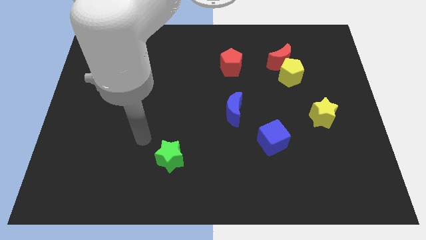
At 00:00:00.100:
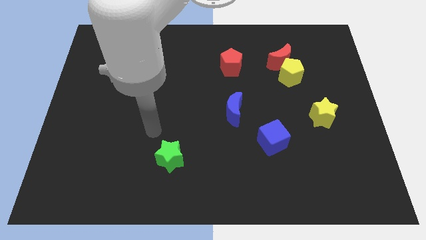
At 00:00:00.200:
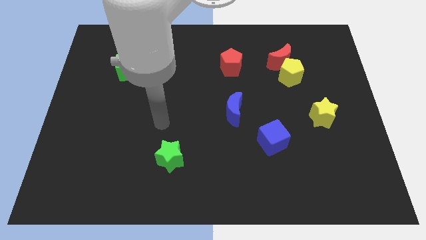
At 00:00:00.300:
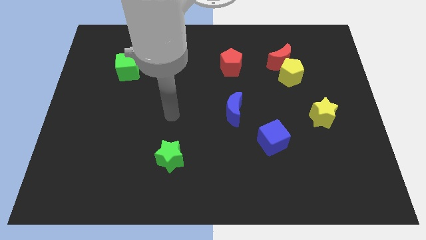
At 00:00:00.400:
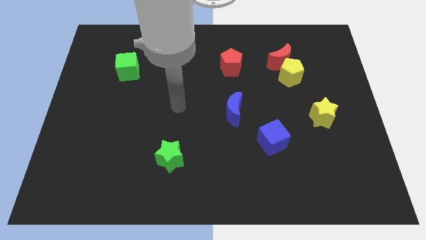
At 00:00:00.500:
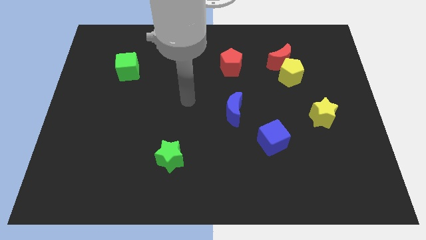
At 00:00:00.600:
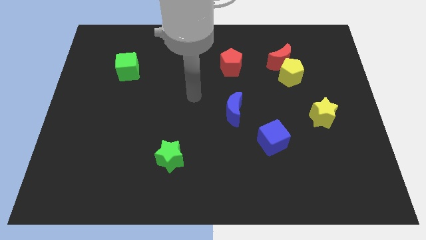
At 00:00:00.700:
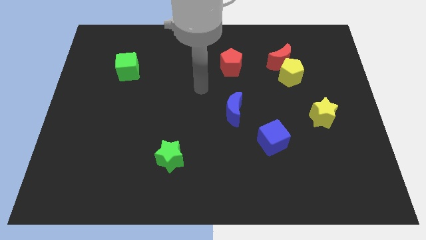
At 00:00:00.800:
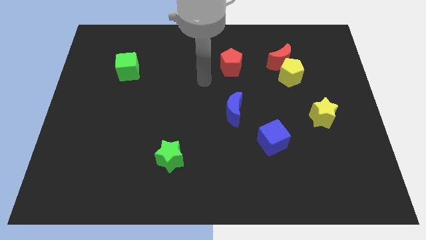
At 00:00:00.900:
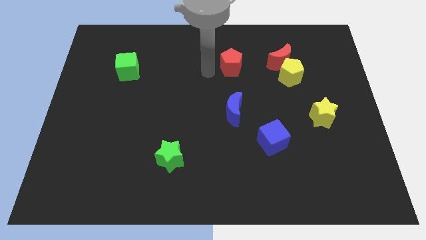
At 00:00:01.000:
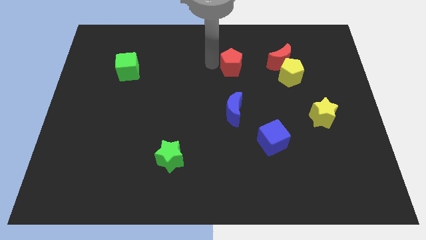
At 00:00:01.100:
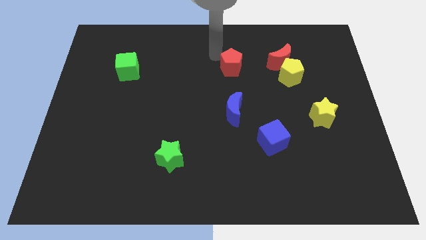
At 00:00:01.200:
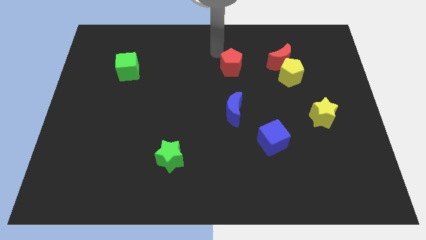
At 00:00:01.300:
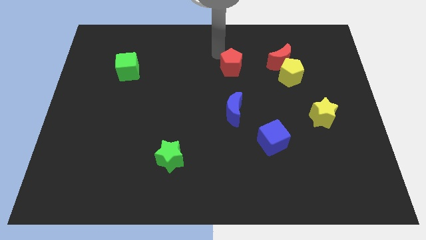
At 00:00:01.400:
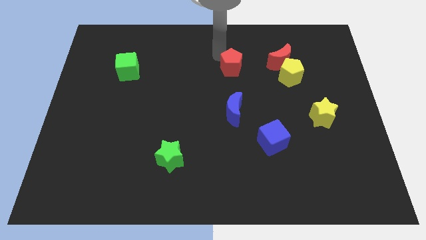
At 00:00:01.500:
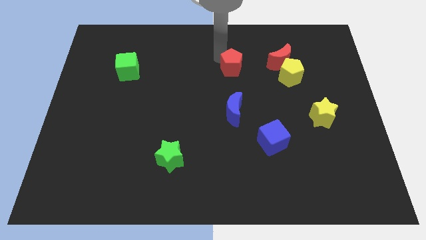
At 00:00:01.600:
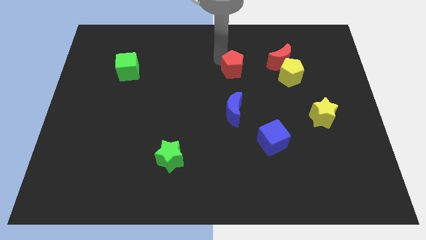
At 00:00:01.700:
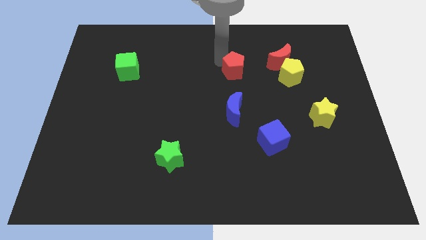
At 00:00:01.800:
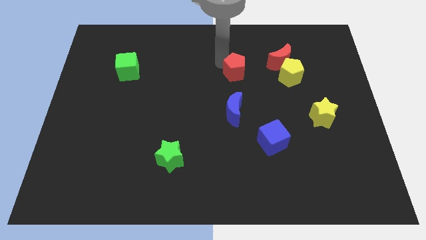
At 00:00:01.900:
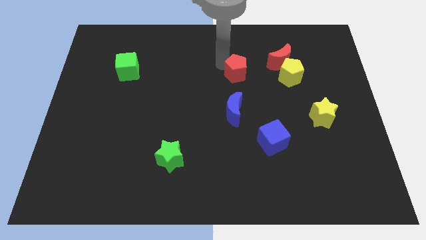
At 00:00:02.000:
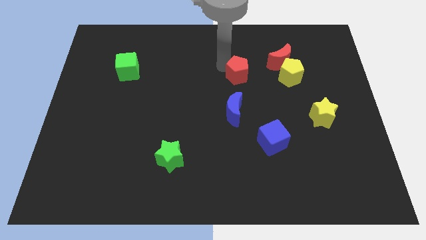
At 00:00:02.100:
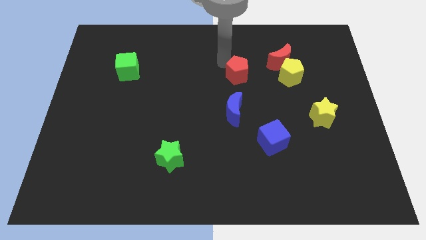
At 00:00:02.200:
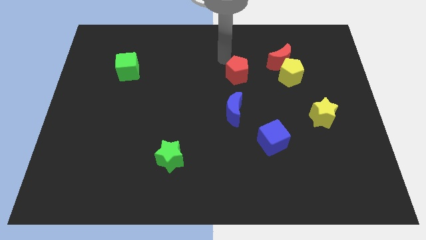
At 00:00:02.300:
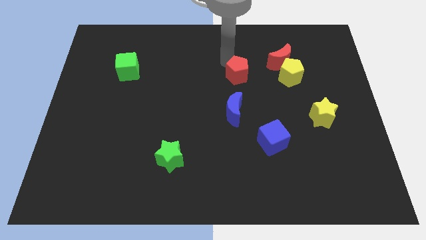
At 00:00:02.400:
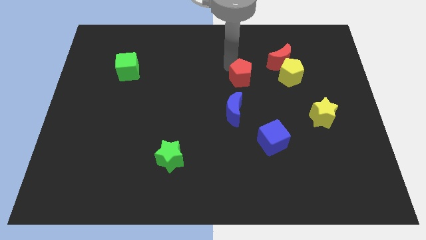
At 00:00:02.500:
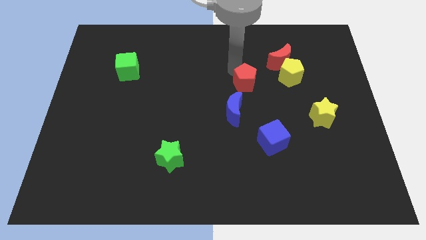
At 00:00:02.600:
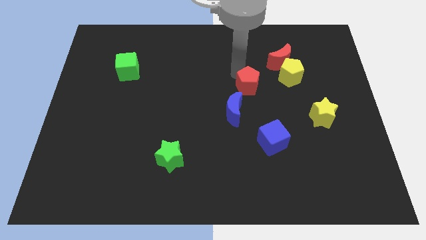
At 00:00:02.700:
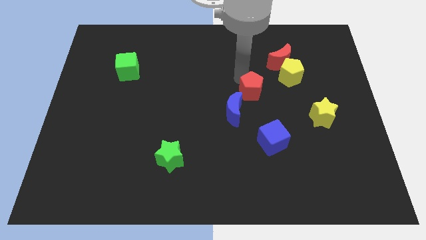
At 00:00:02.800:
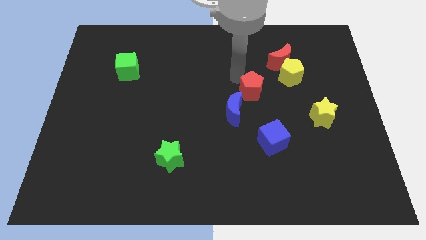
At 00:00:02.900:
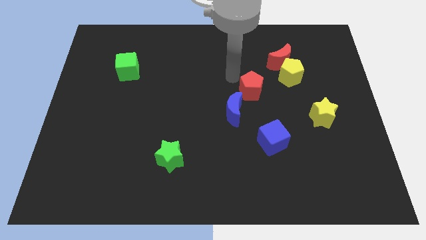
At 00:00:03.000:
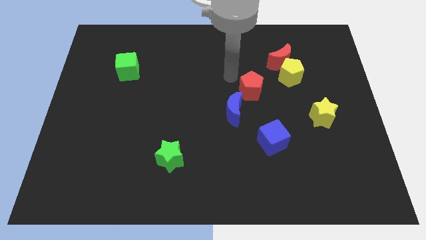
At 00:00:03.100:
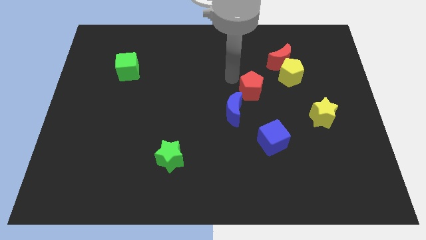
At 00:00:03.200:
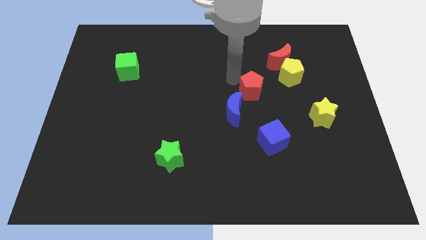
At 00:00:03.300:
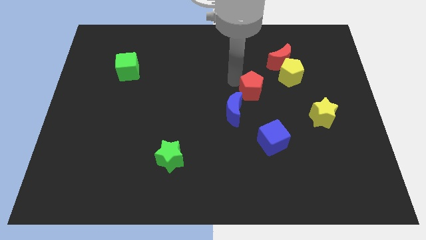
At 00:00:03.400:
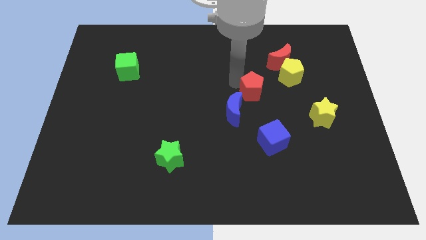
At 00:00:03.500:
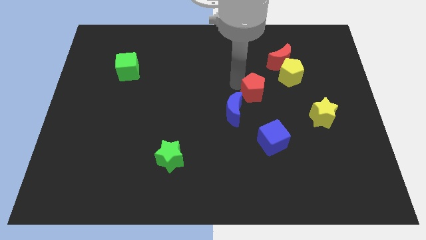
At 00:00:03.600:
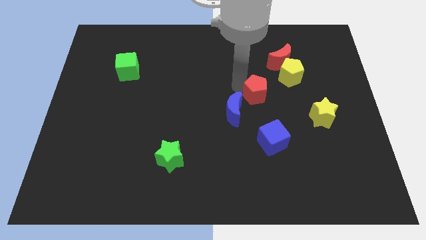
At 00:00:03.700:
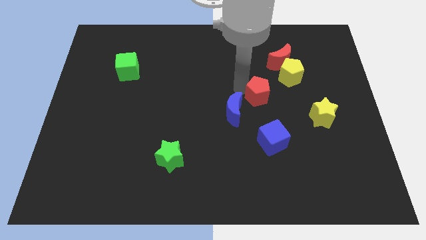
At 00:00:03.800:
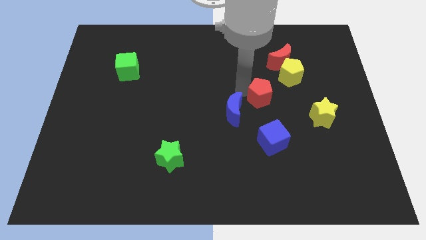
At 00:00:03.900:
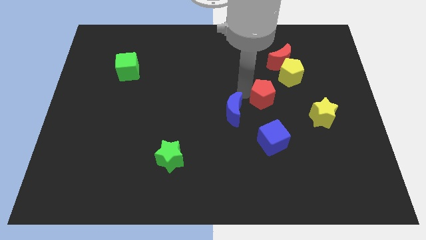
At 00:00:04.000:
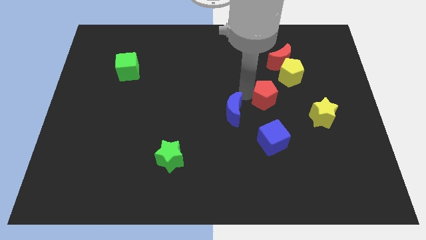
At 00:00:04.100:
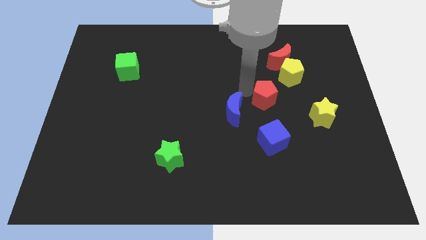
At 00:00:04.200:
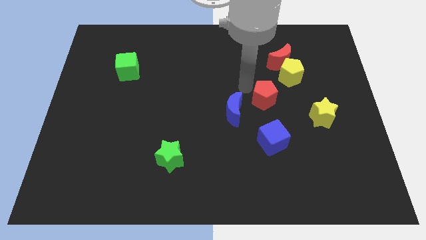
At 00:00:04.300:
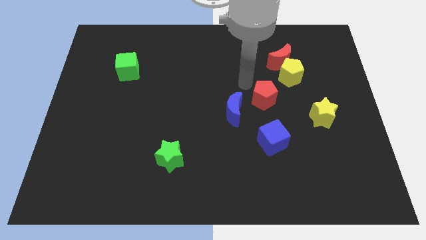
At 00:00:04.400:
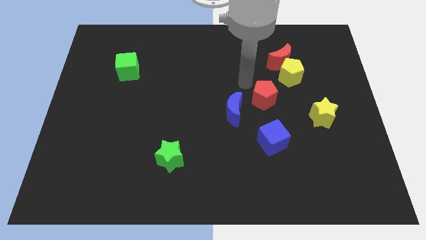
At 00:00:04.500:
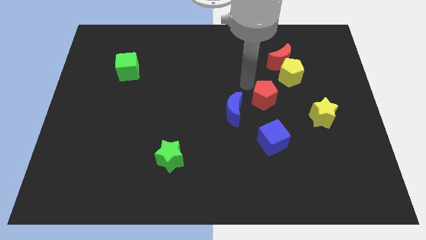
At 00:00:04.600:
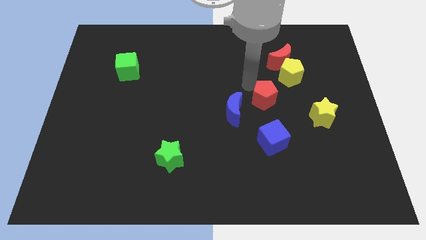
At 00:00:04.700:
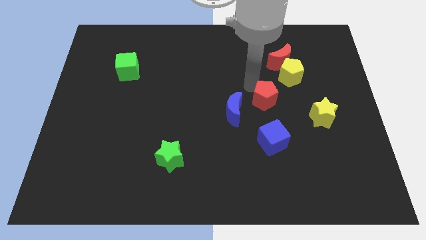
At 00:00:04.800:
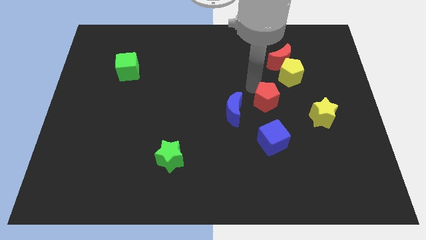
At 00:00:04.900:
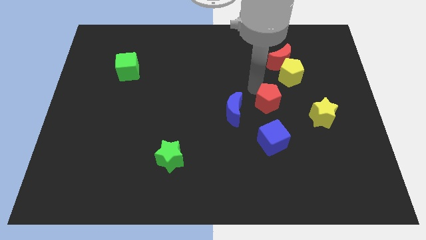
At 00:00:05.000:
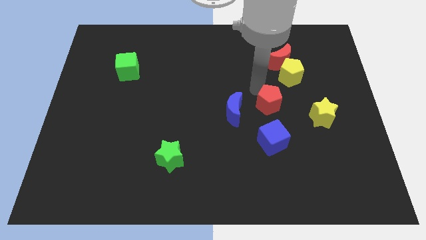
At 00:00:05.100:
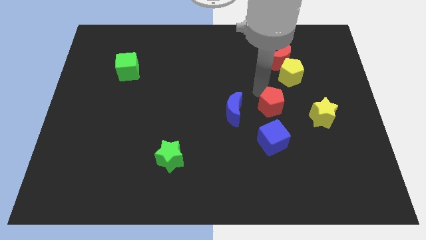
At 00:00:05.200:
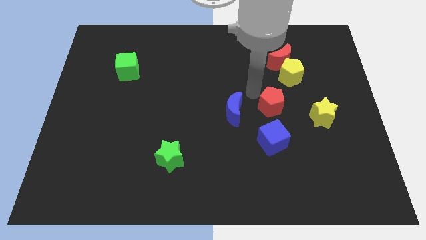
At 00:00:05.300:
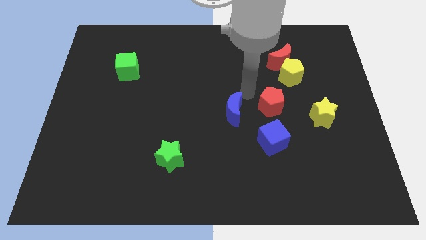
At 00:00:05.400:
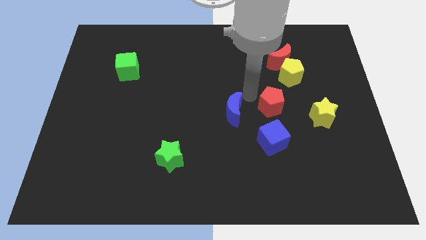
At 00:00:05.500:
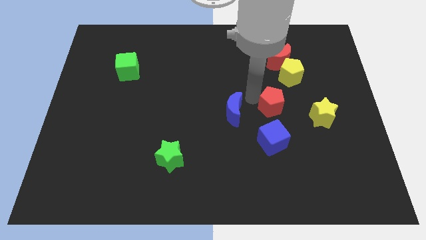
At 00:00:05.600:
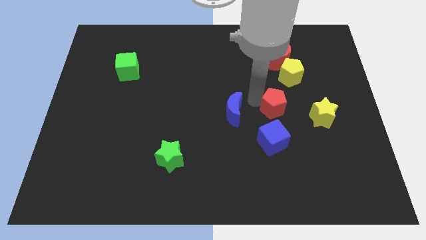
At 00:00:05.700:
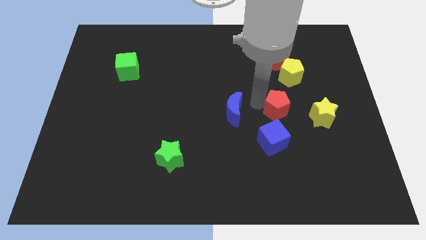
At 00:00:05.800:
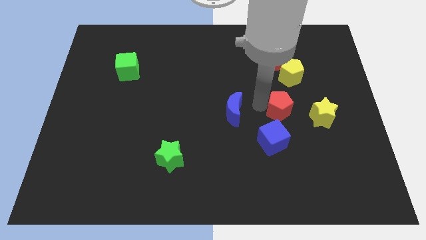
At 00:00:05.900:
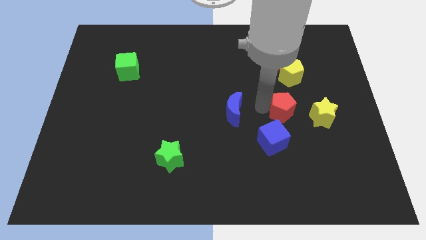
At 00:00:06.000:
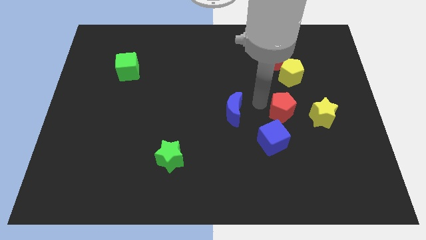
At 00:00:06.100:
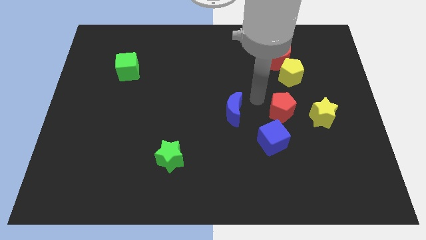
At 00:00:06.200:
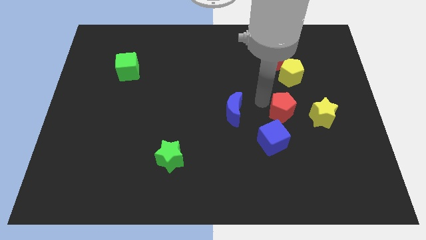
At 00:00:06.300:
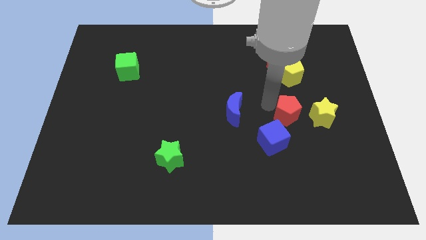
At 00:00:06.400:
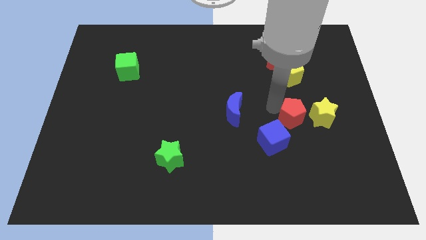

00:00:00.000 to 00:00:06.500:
move the red pentagon down and to the right

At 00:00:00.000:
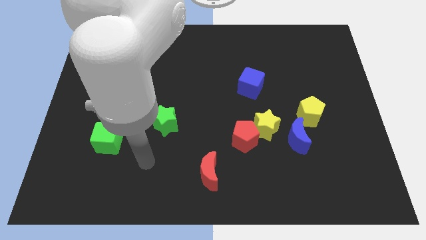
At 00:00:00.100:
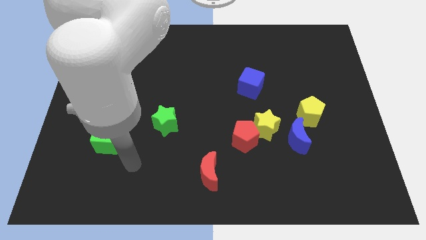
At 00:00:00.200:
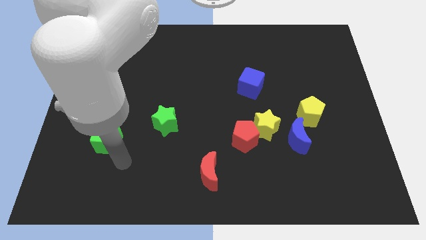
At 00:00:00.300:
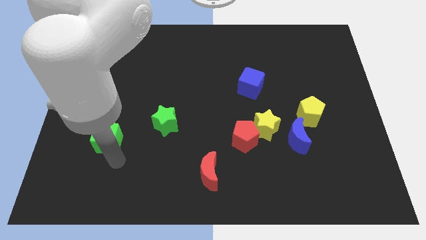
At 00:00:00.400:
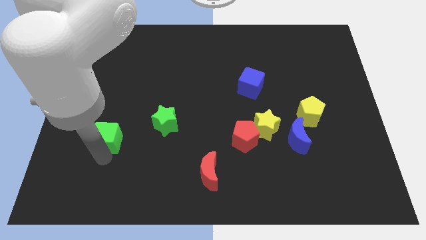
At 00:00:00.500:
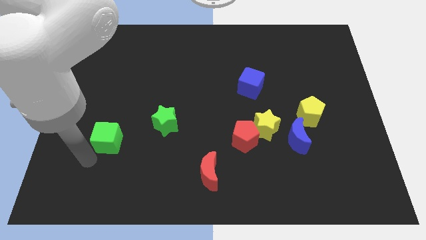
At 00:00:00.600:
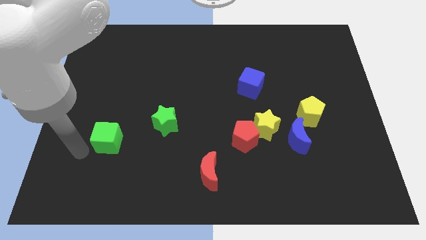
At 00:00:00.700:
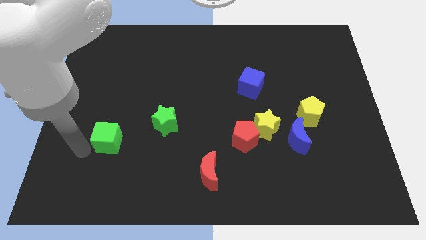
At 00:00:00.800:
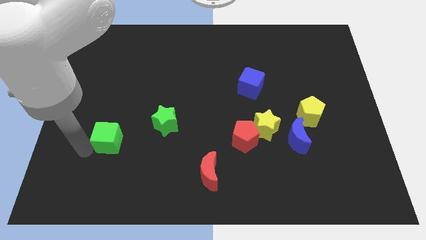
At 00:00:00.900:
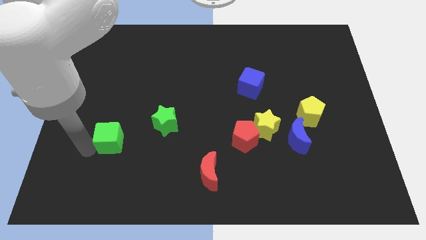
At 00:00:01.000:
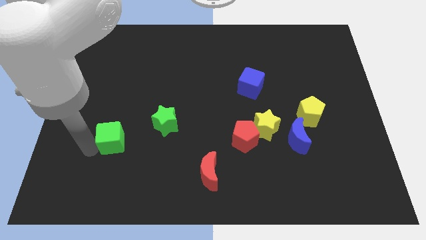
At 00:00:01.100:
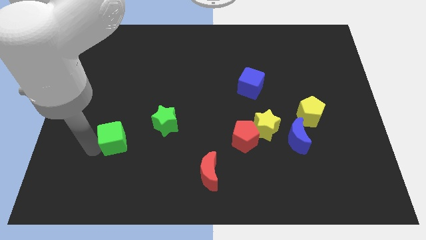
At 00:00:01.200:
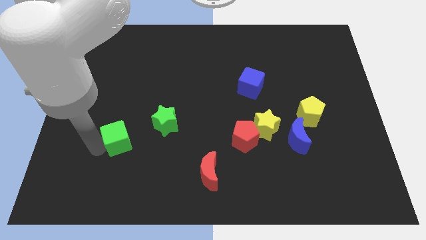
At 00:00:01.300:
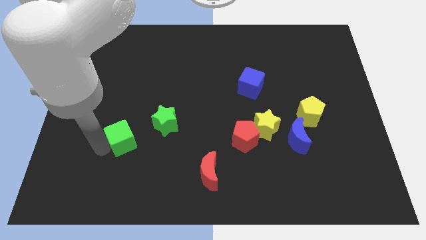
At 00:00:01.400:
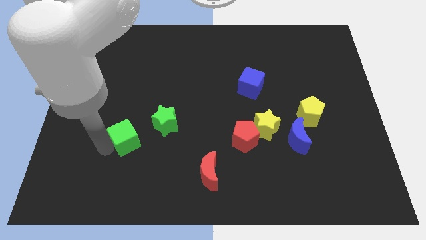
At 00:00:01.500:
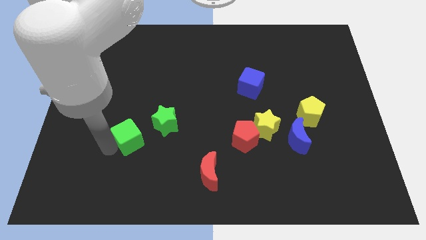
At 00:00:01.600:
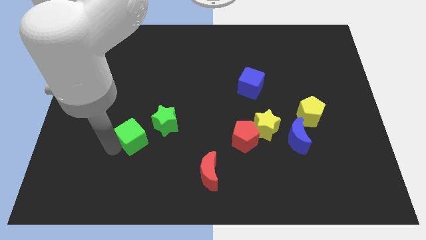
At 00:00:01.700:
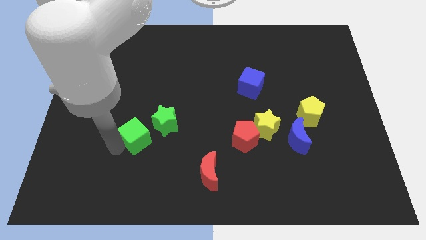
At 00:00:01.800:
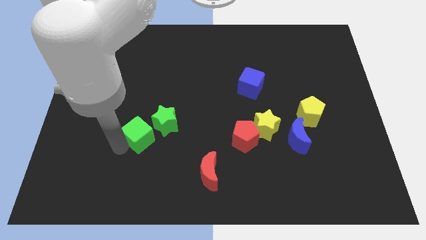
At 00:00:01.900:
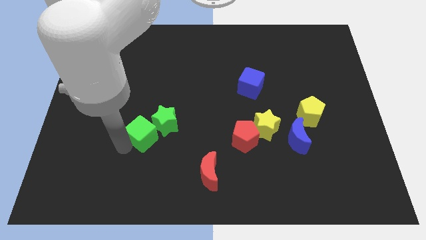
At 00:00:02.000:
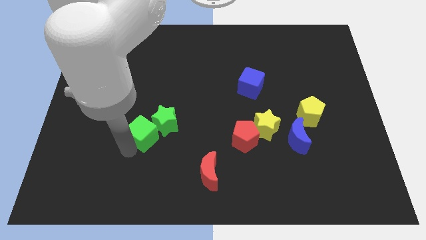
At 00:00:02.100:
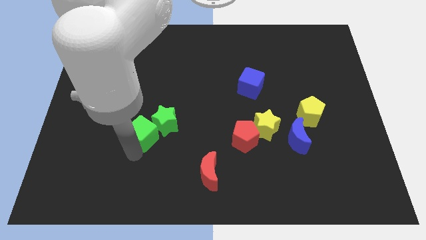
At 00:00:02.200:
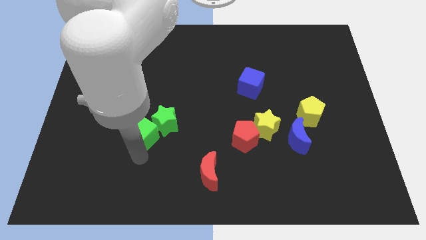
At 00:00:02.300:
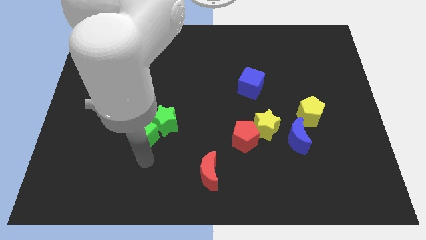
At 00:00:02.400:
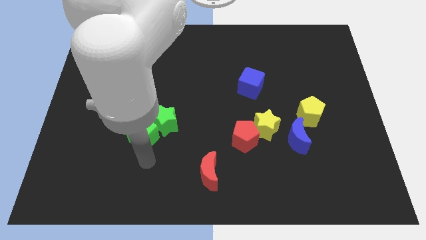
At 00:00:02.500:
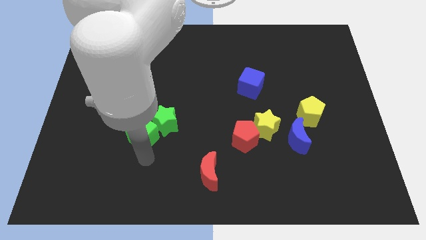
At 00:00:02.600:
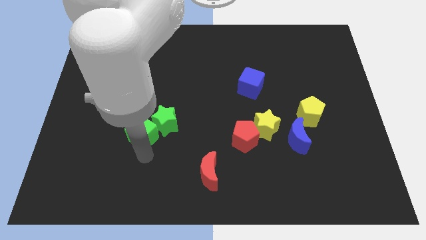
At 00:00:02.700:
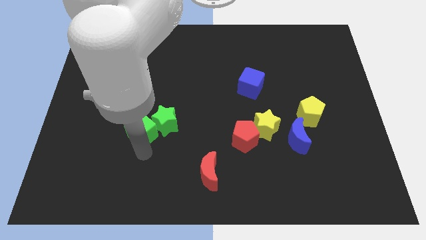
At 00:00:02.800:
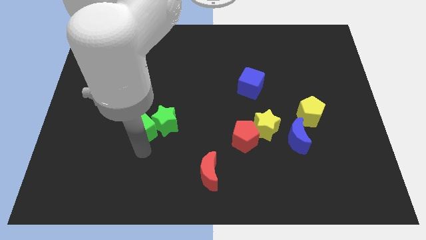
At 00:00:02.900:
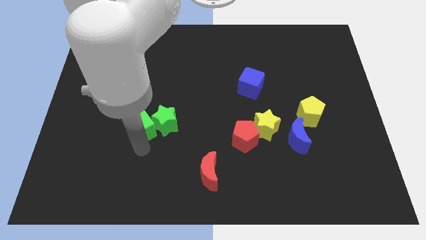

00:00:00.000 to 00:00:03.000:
move the green cube up and to the right a bit
